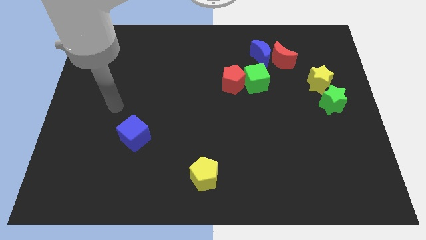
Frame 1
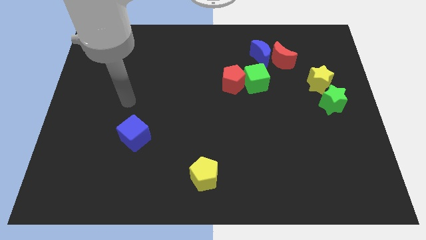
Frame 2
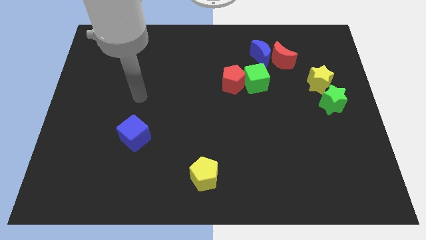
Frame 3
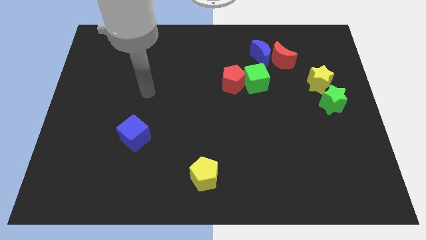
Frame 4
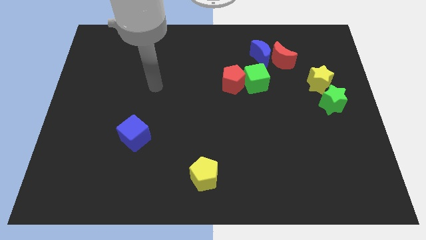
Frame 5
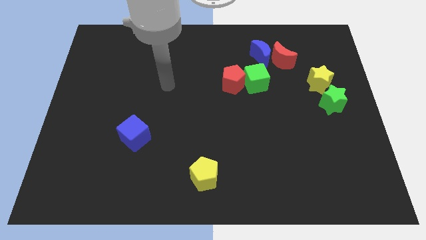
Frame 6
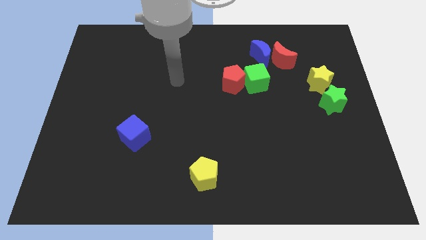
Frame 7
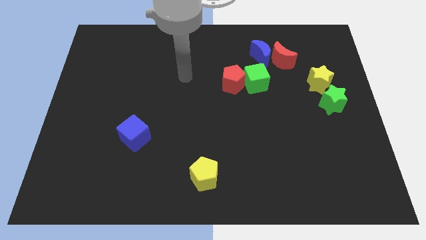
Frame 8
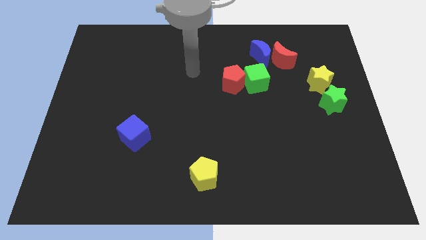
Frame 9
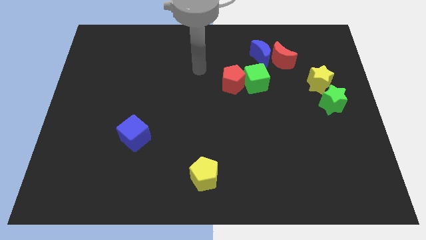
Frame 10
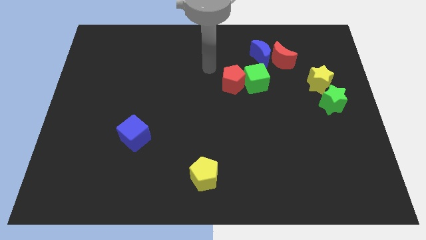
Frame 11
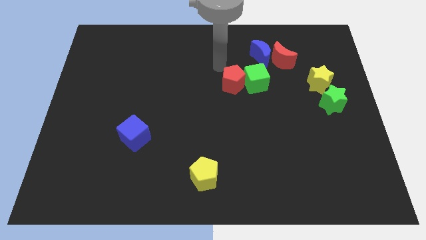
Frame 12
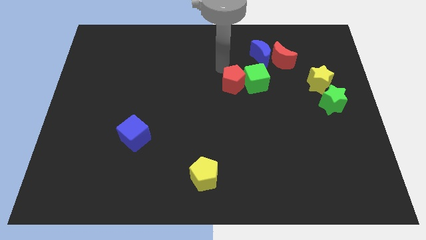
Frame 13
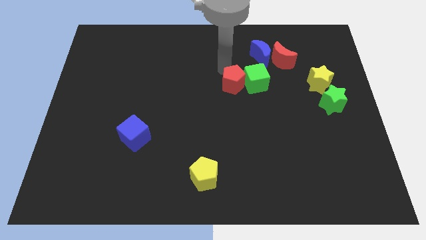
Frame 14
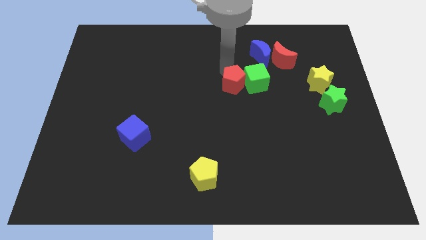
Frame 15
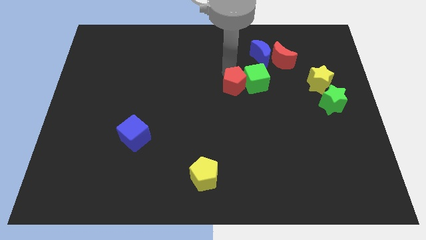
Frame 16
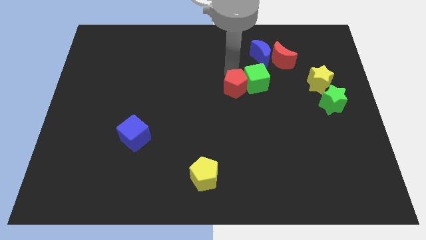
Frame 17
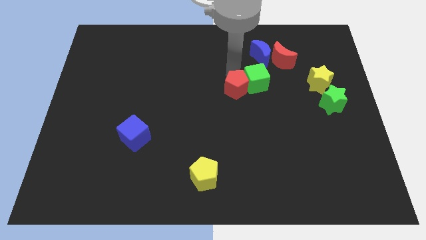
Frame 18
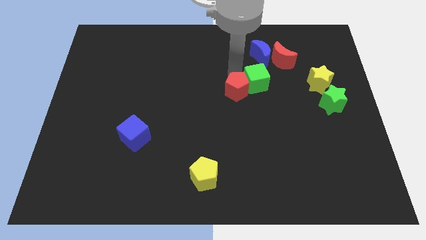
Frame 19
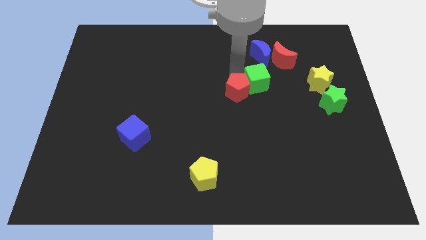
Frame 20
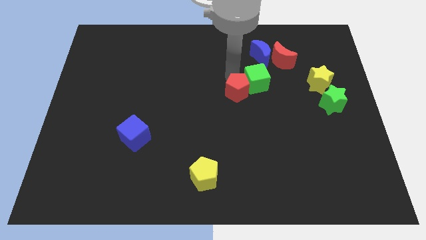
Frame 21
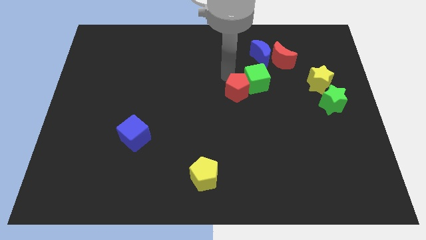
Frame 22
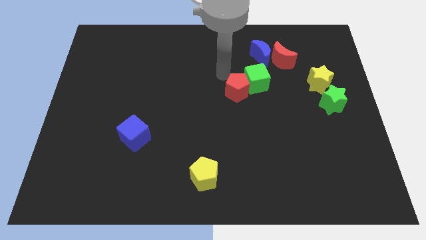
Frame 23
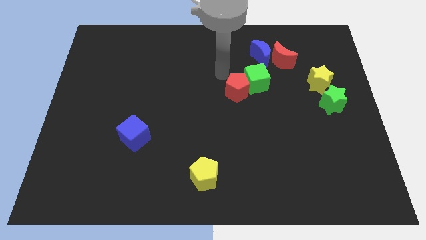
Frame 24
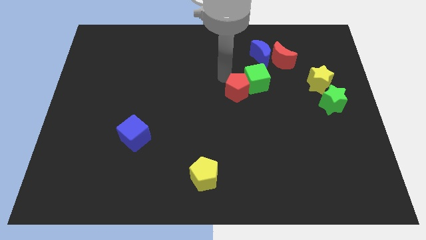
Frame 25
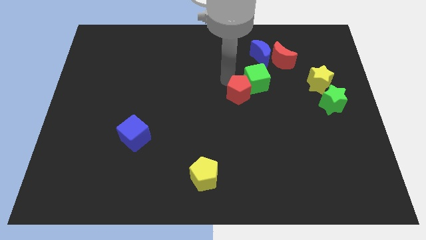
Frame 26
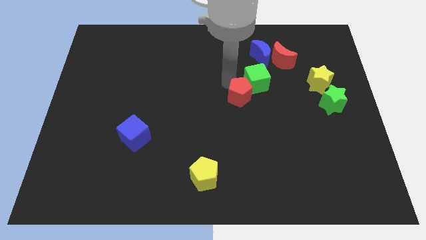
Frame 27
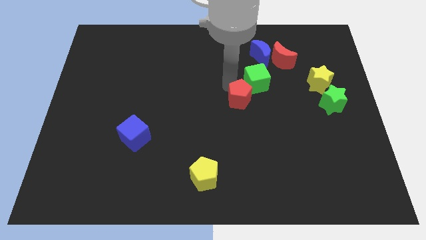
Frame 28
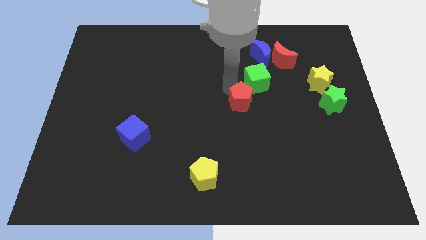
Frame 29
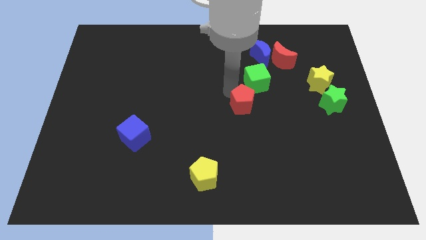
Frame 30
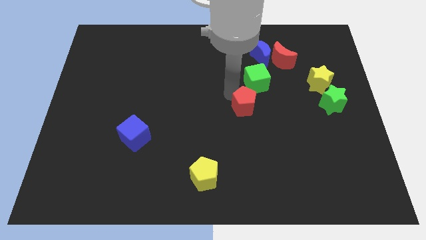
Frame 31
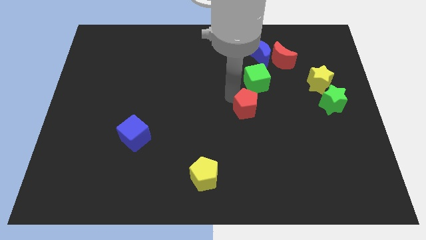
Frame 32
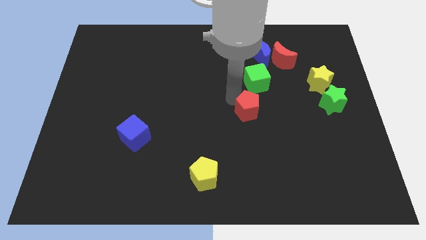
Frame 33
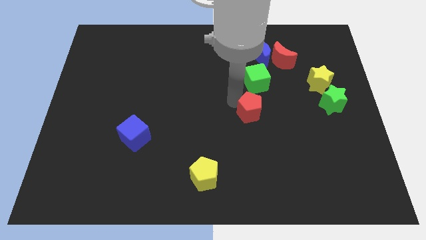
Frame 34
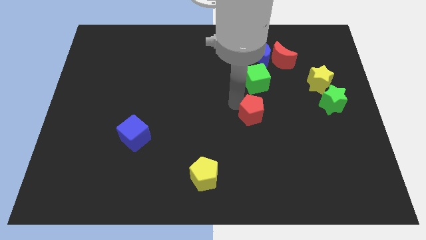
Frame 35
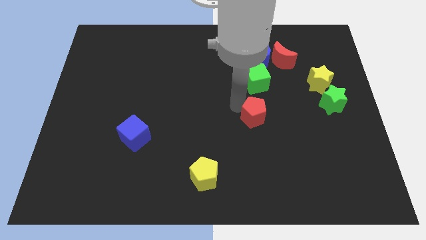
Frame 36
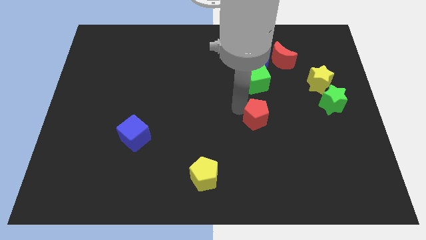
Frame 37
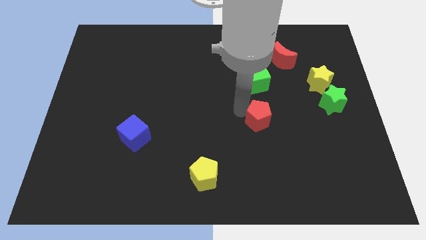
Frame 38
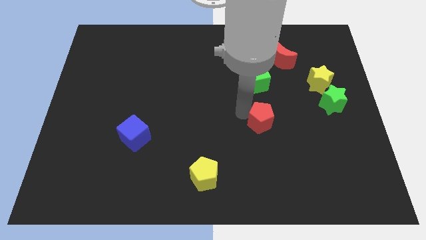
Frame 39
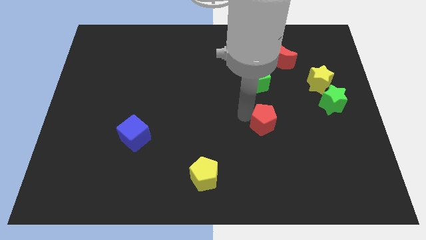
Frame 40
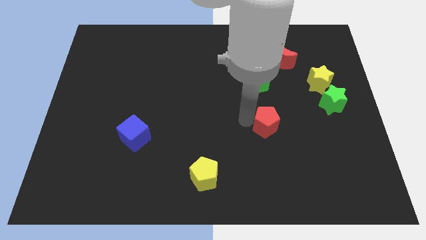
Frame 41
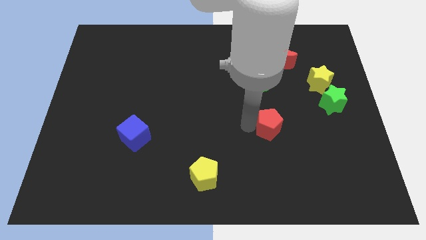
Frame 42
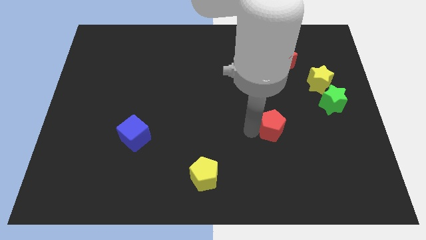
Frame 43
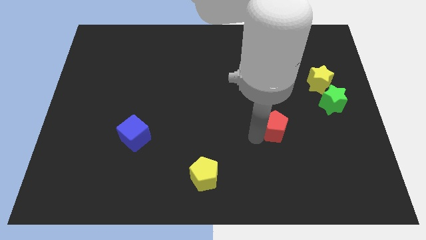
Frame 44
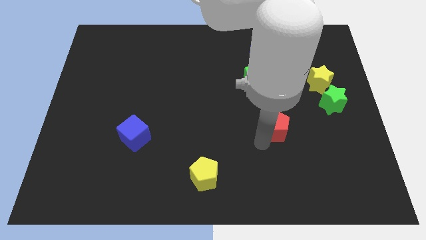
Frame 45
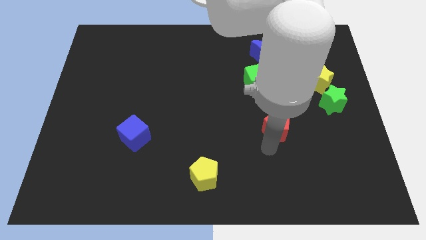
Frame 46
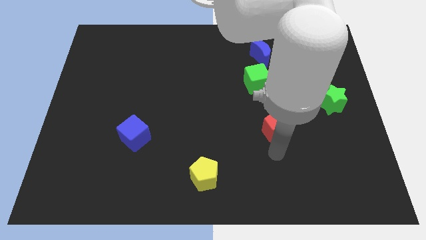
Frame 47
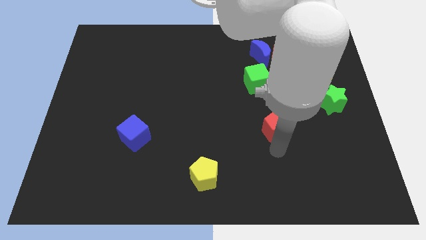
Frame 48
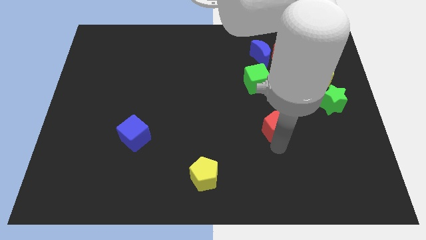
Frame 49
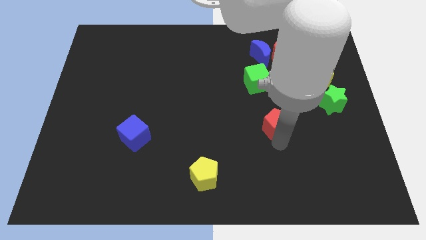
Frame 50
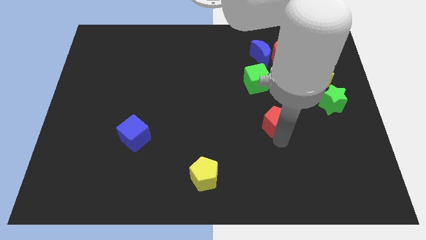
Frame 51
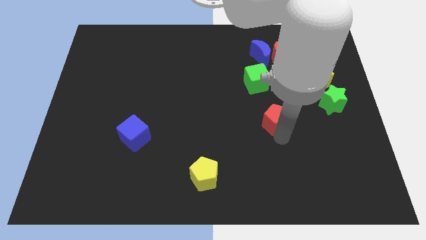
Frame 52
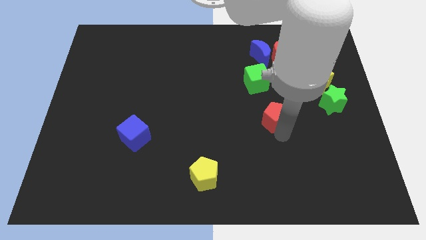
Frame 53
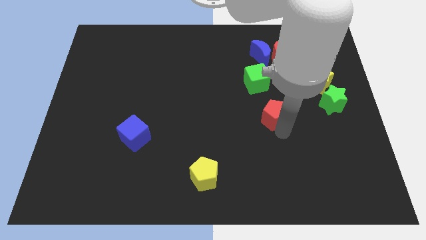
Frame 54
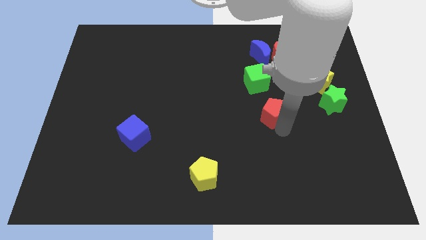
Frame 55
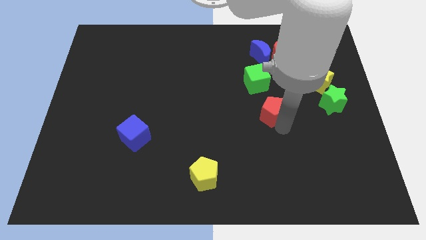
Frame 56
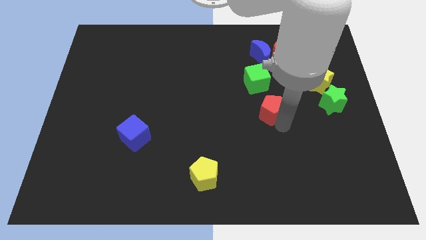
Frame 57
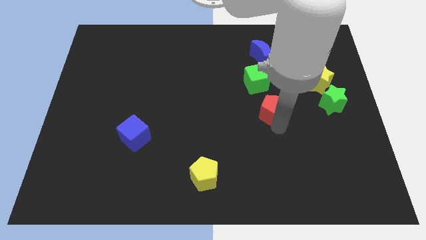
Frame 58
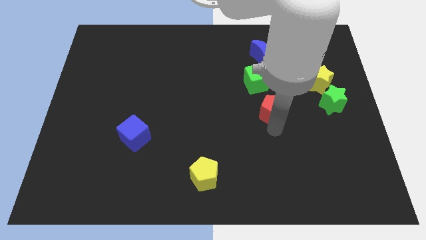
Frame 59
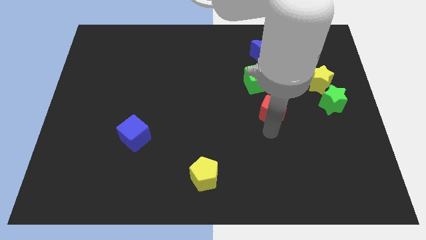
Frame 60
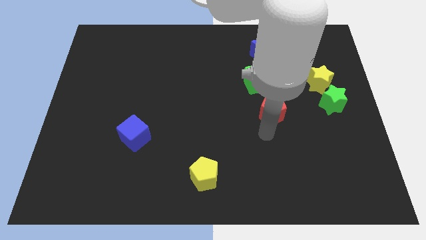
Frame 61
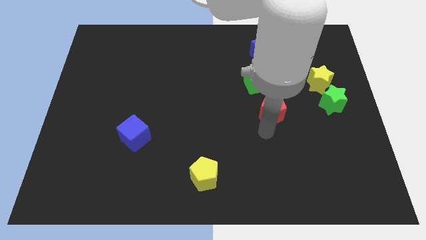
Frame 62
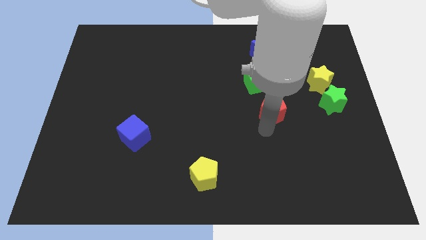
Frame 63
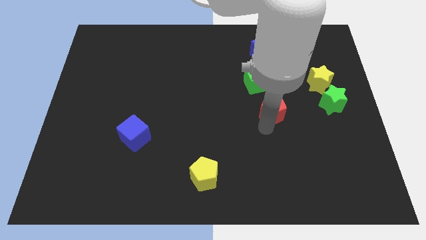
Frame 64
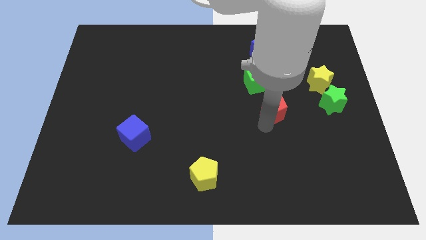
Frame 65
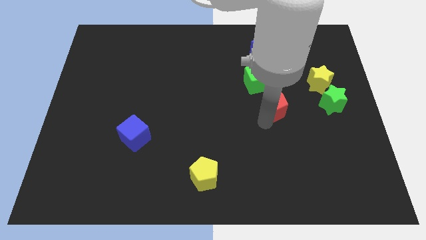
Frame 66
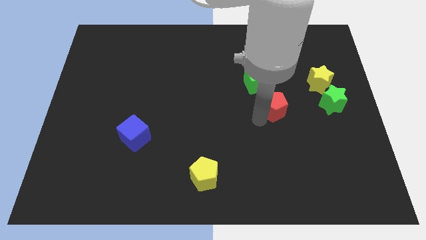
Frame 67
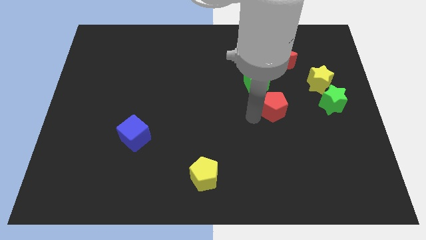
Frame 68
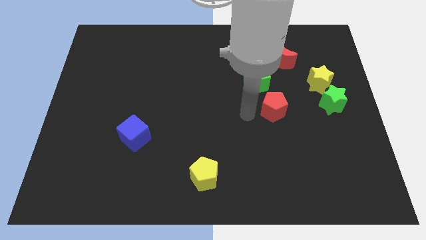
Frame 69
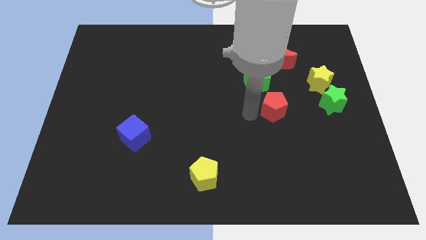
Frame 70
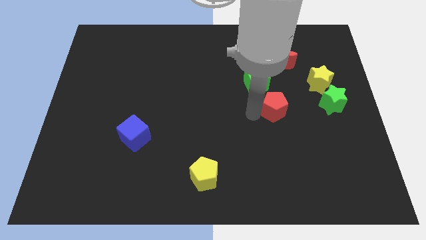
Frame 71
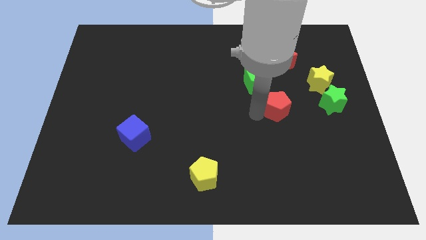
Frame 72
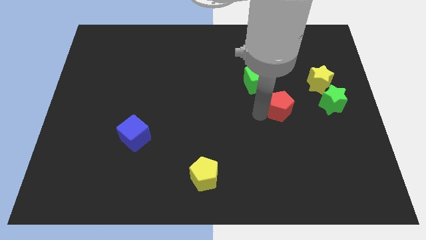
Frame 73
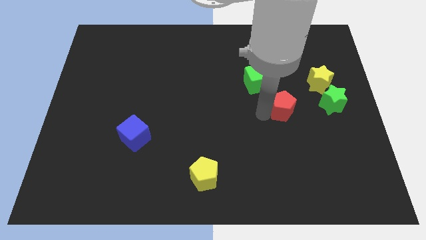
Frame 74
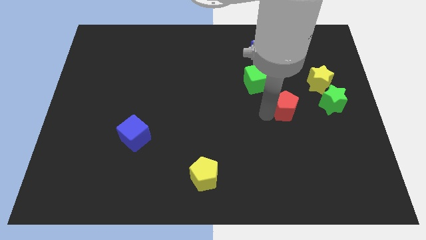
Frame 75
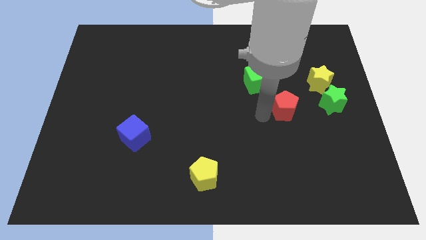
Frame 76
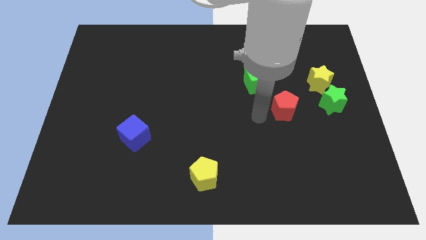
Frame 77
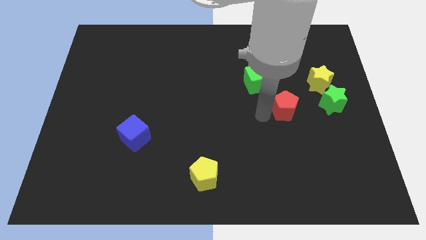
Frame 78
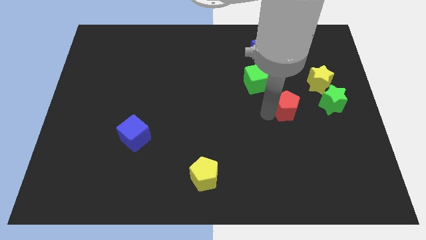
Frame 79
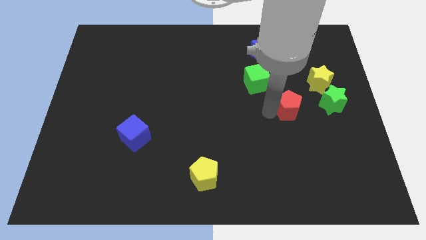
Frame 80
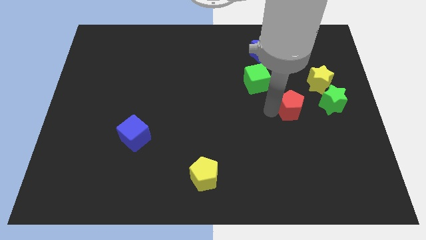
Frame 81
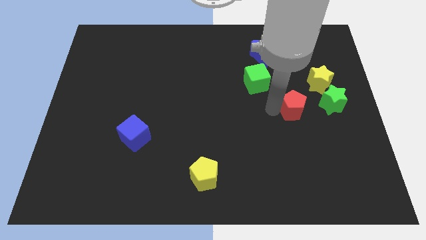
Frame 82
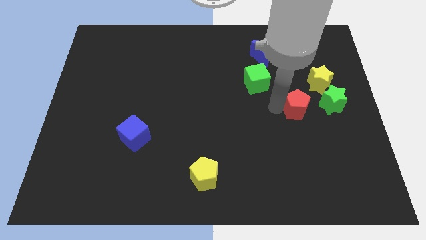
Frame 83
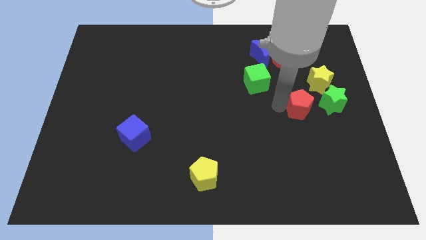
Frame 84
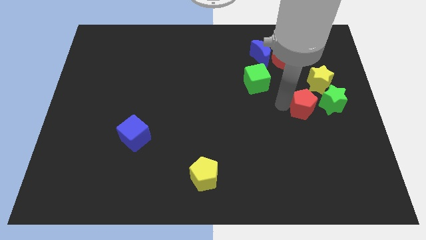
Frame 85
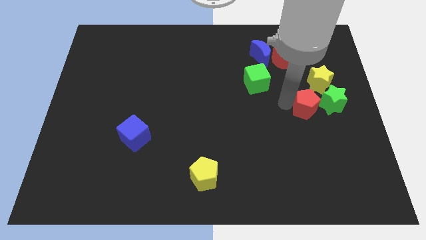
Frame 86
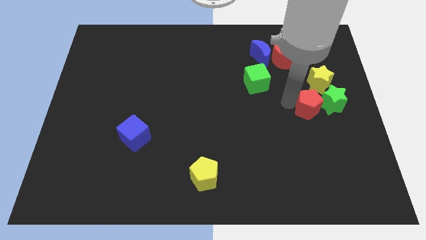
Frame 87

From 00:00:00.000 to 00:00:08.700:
slide the red pentagon next to the green star
